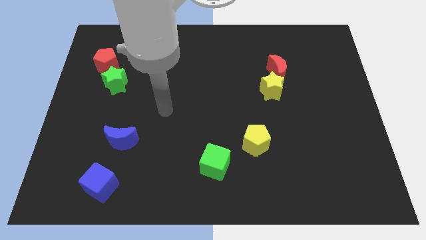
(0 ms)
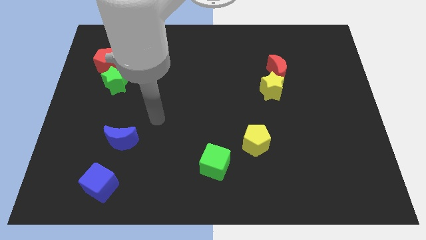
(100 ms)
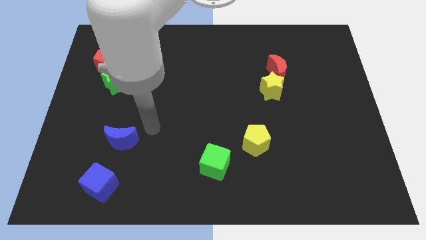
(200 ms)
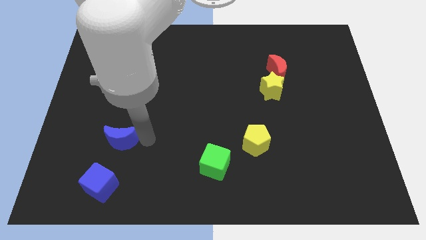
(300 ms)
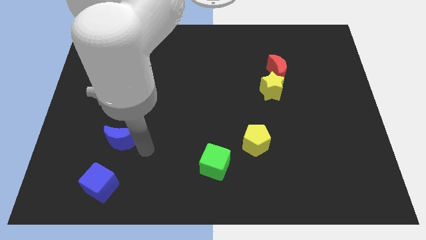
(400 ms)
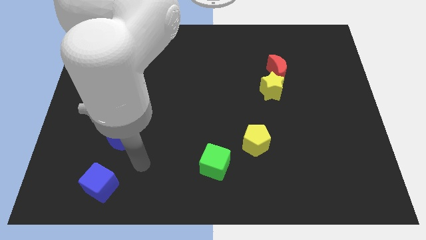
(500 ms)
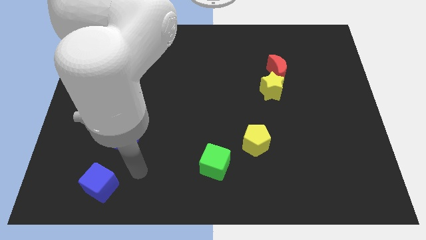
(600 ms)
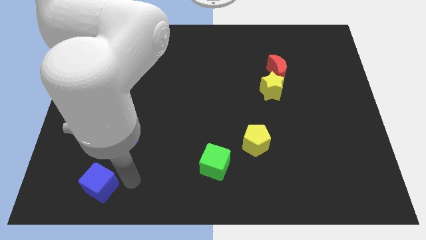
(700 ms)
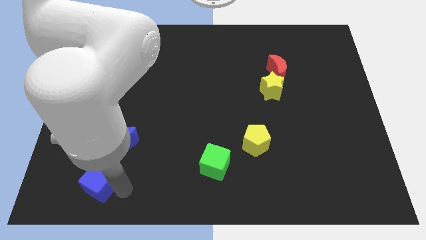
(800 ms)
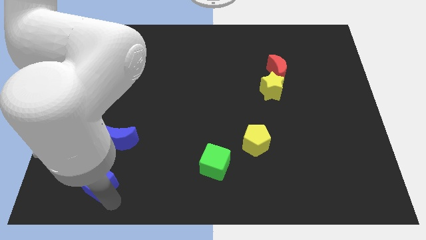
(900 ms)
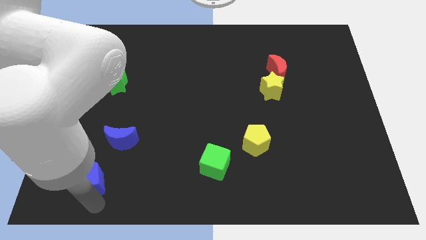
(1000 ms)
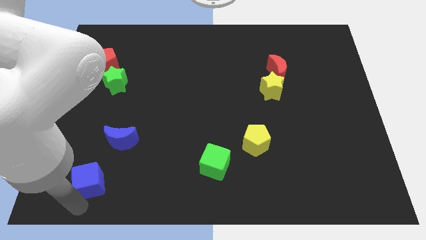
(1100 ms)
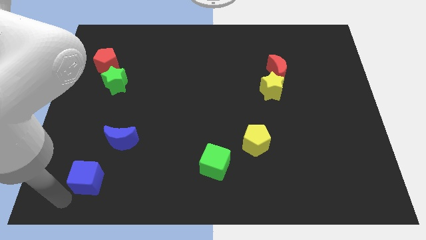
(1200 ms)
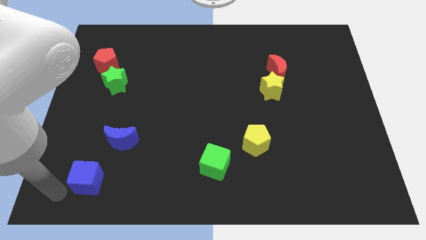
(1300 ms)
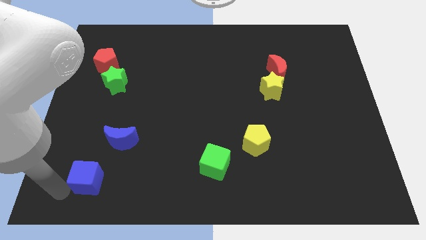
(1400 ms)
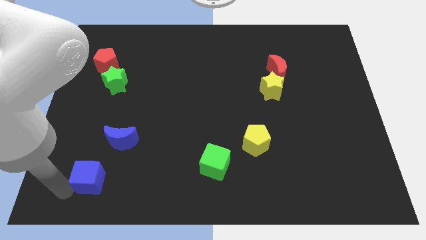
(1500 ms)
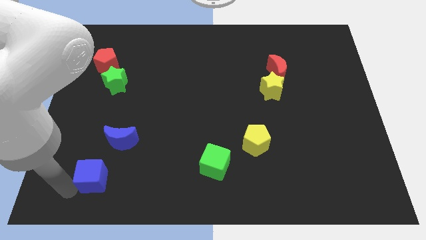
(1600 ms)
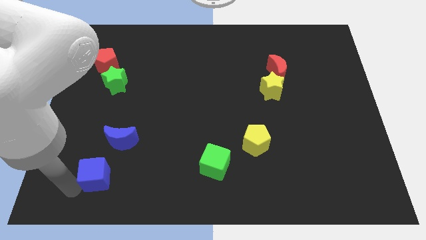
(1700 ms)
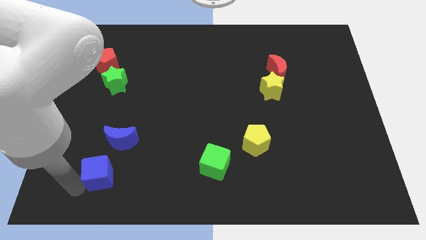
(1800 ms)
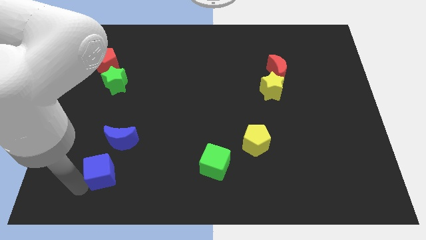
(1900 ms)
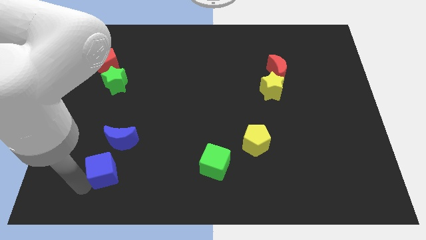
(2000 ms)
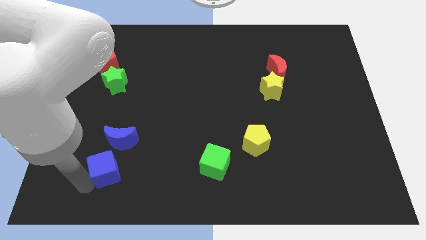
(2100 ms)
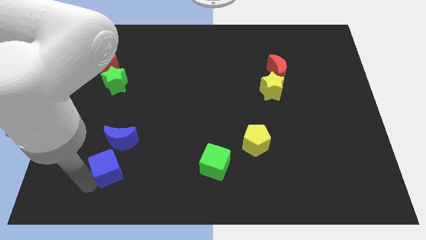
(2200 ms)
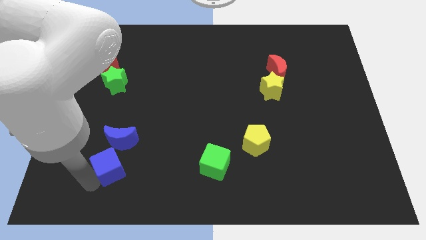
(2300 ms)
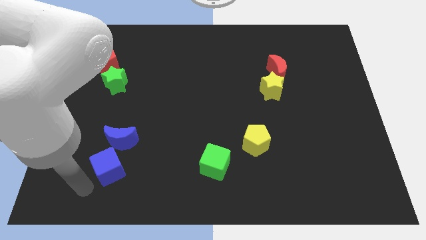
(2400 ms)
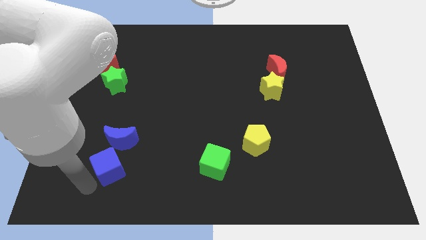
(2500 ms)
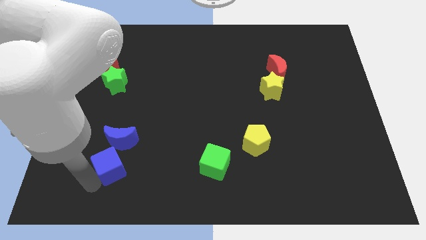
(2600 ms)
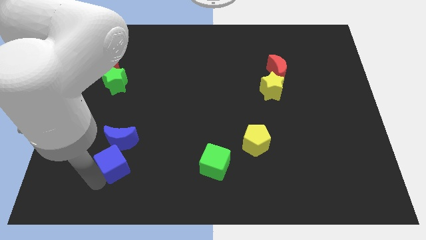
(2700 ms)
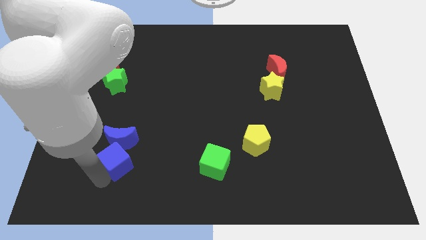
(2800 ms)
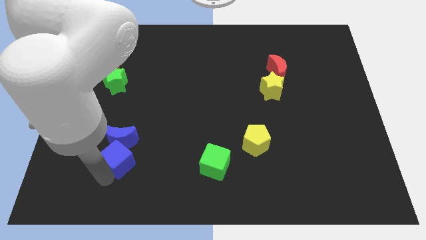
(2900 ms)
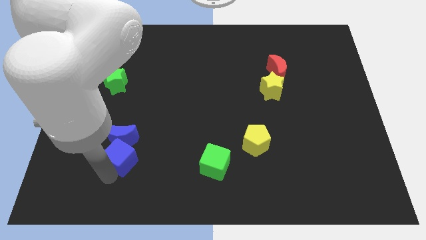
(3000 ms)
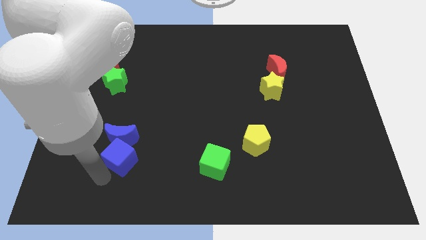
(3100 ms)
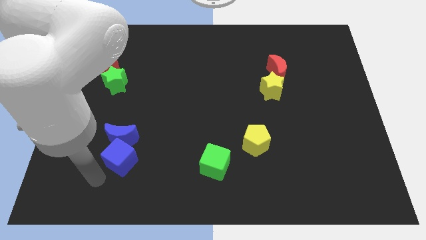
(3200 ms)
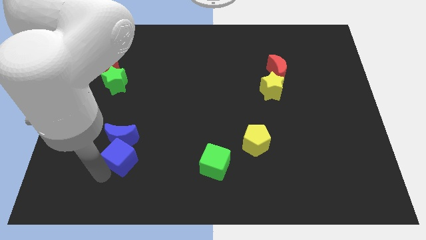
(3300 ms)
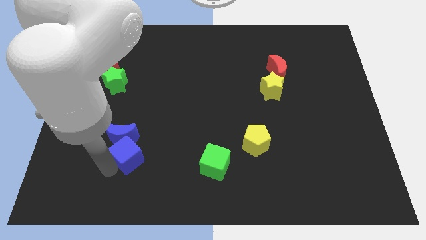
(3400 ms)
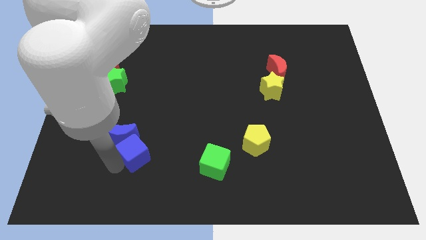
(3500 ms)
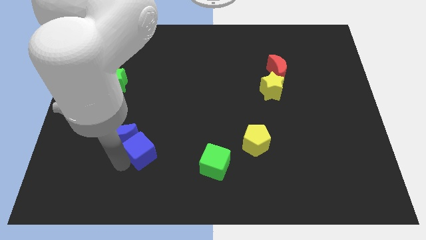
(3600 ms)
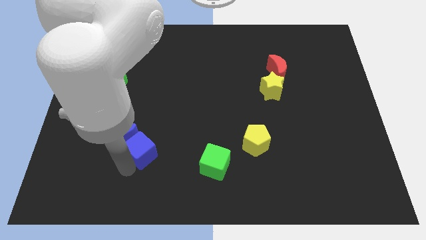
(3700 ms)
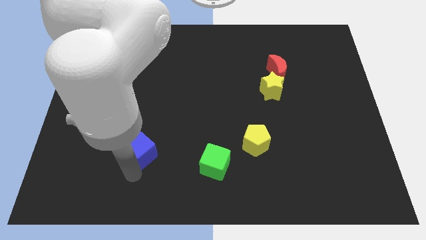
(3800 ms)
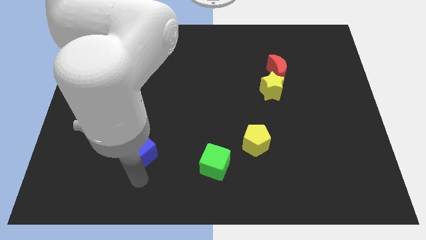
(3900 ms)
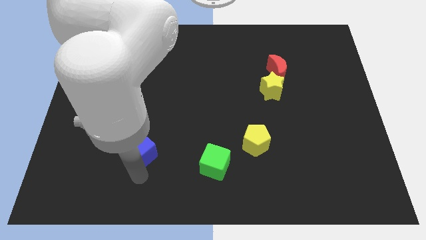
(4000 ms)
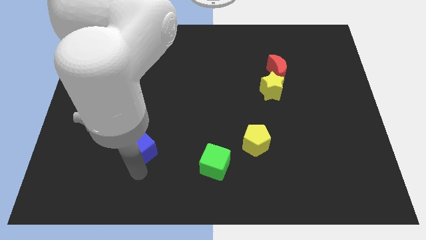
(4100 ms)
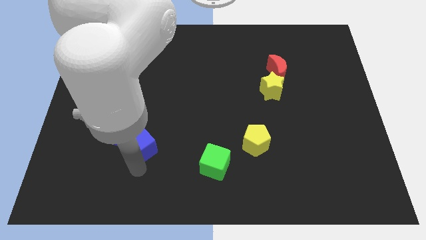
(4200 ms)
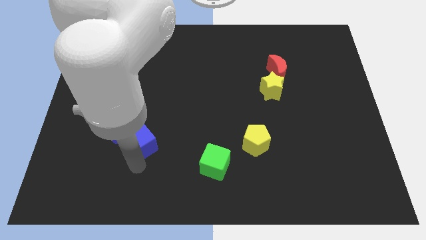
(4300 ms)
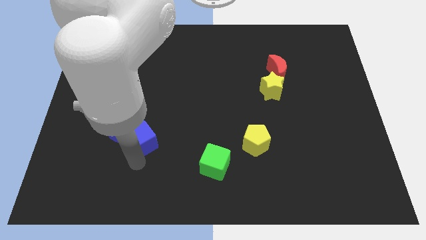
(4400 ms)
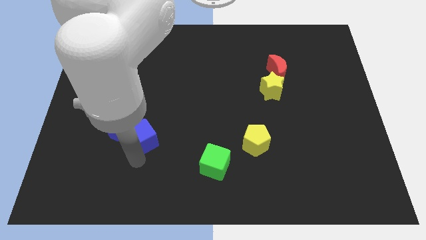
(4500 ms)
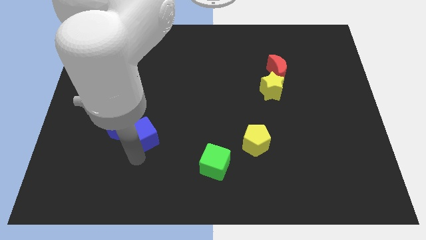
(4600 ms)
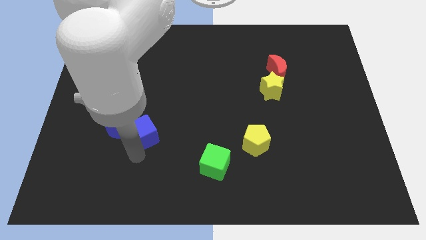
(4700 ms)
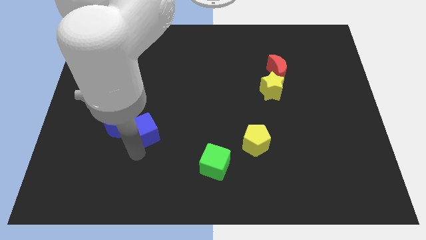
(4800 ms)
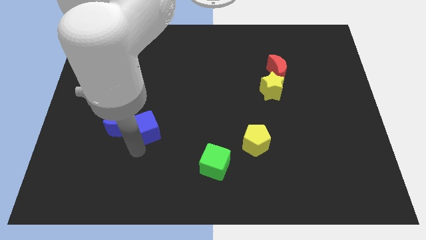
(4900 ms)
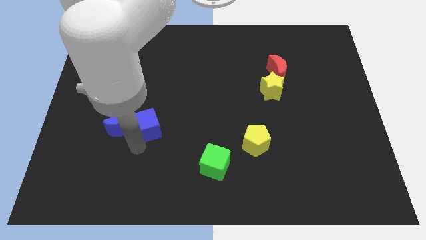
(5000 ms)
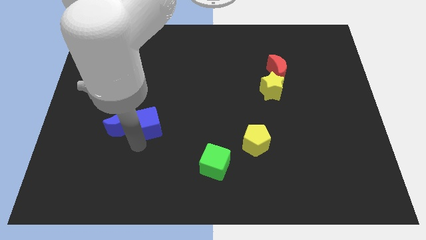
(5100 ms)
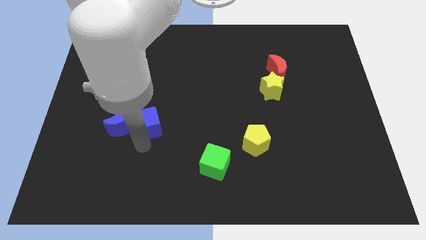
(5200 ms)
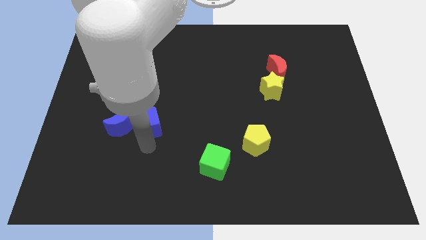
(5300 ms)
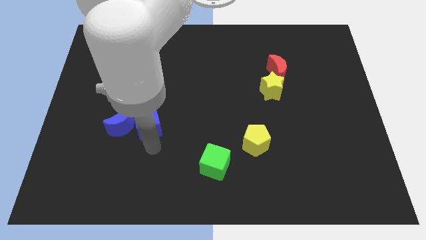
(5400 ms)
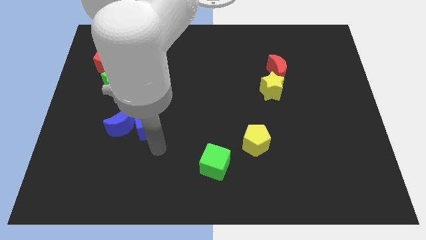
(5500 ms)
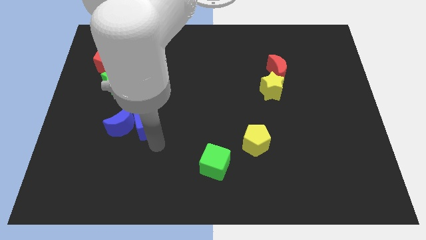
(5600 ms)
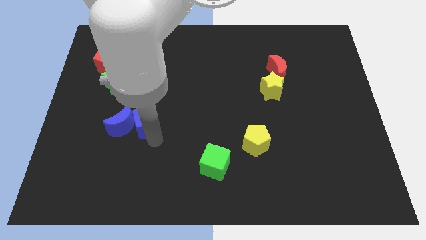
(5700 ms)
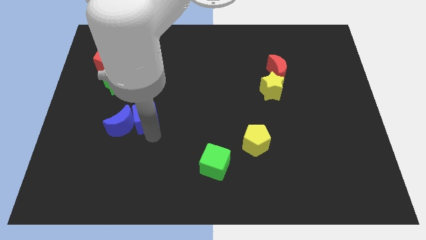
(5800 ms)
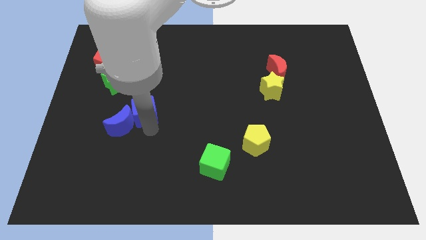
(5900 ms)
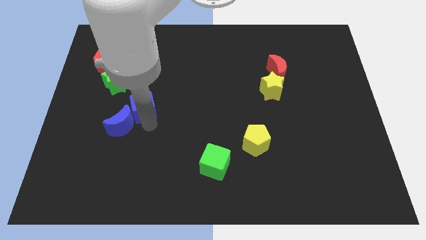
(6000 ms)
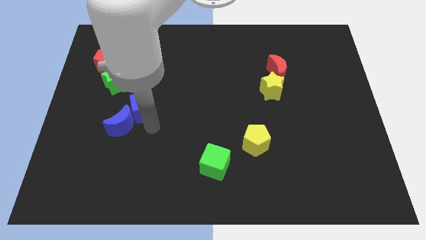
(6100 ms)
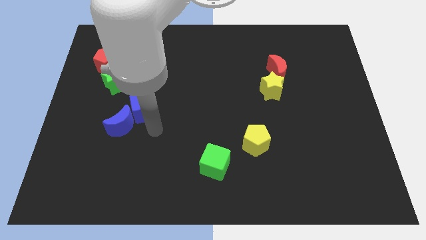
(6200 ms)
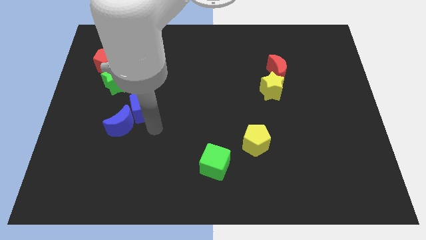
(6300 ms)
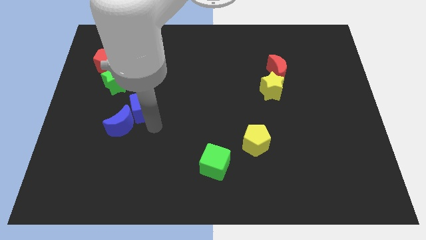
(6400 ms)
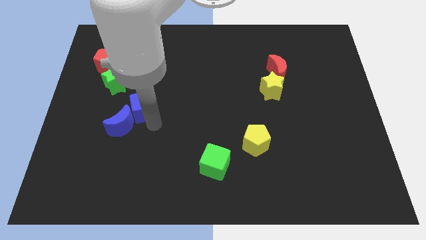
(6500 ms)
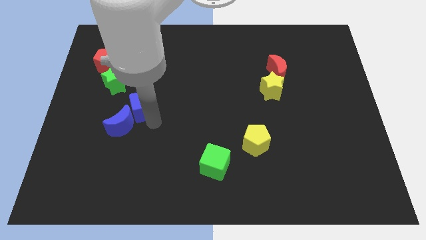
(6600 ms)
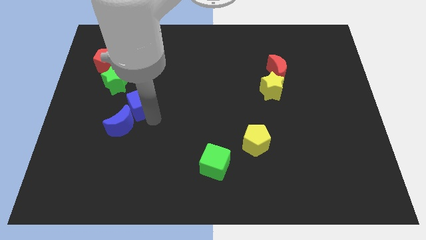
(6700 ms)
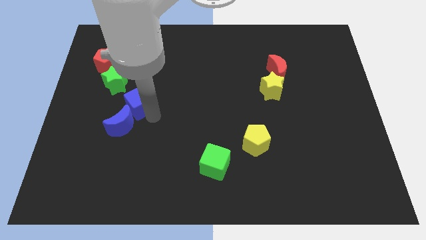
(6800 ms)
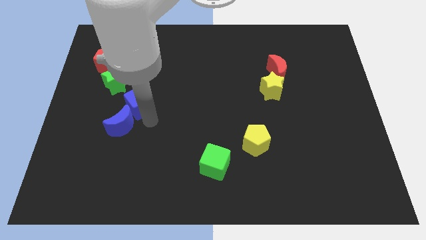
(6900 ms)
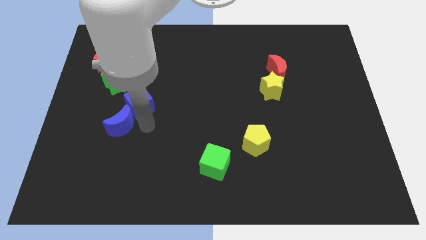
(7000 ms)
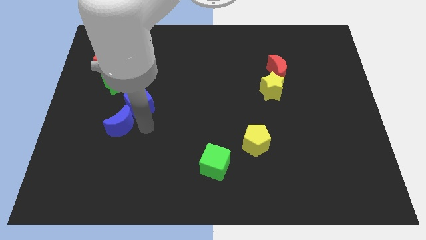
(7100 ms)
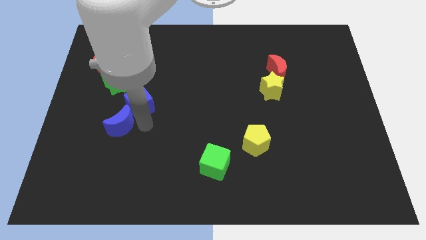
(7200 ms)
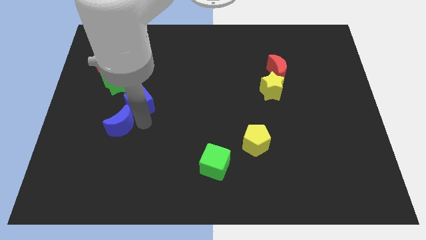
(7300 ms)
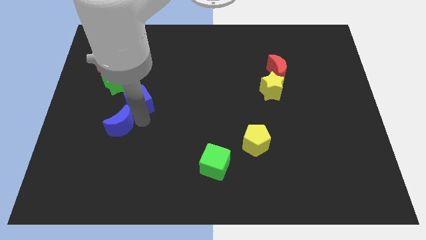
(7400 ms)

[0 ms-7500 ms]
push the blue cube up

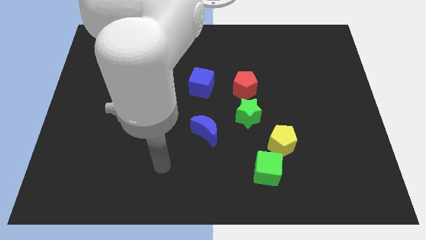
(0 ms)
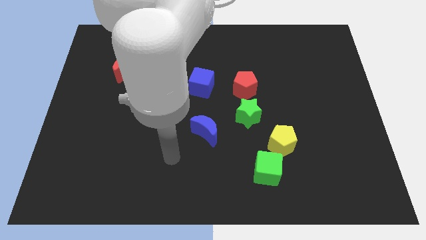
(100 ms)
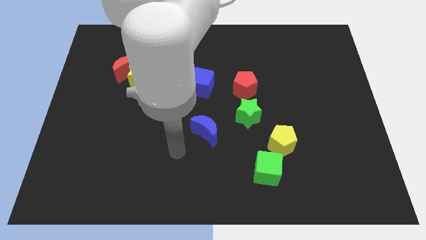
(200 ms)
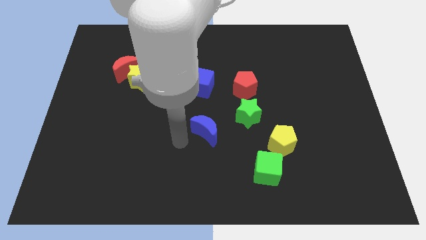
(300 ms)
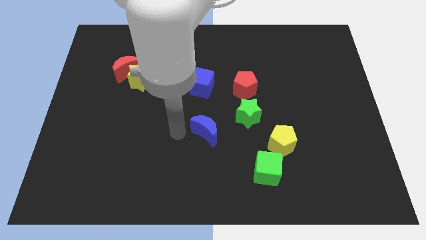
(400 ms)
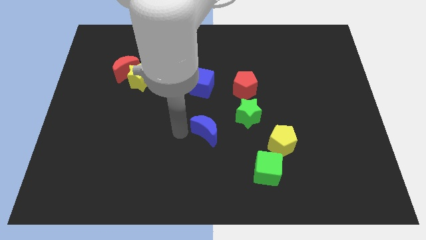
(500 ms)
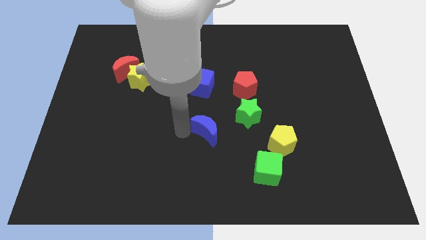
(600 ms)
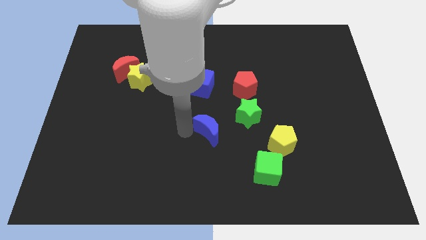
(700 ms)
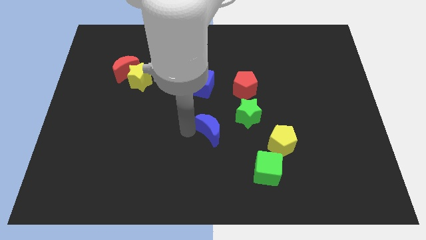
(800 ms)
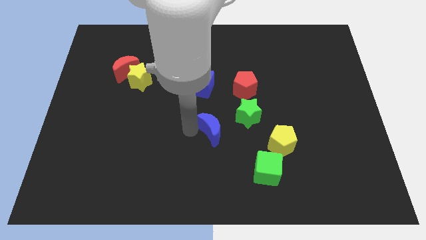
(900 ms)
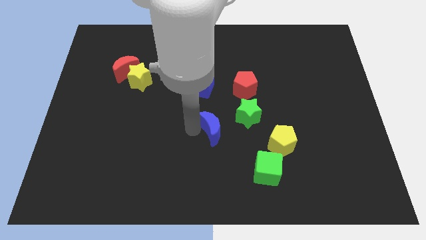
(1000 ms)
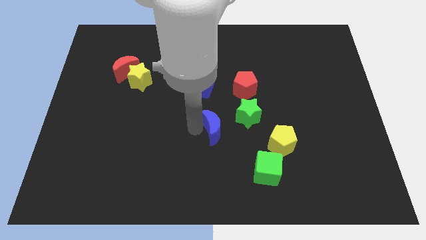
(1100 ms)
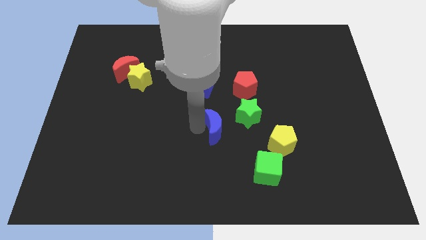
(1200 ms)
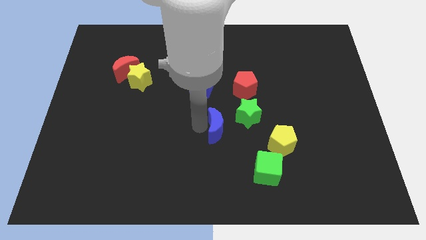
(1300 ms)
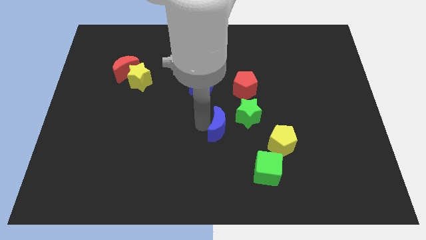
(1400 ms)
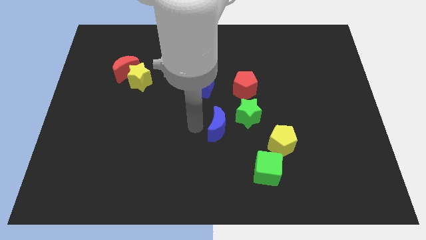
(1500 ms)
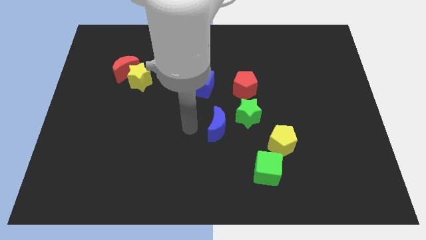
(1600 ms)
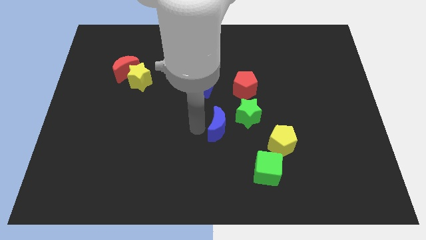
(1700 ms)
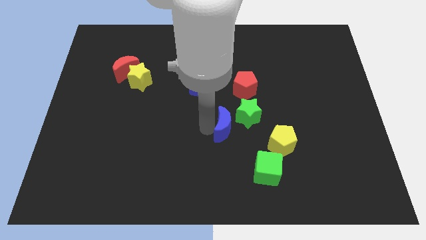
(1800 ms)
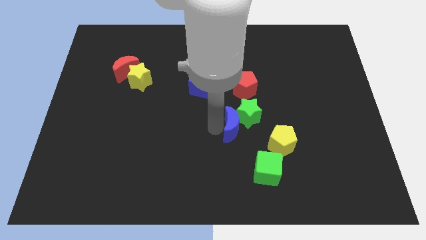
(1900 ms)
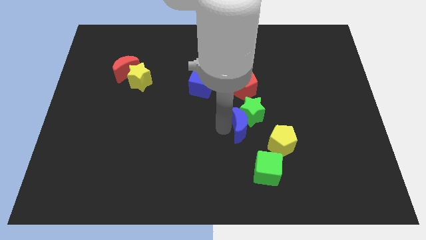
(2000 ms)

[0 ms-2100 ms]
slightly push the blue moon to the right
